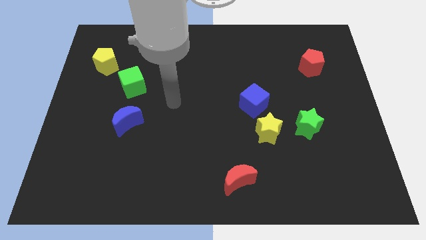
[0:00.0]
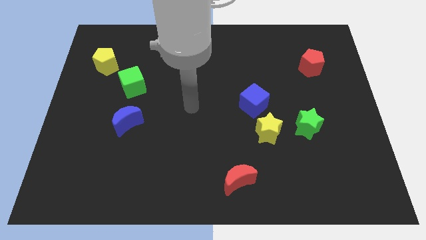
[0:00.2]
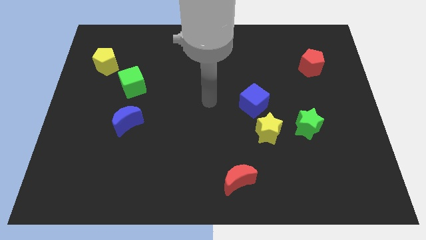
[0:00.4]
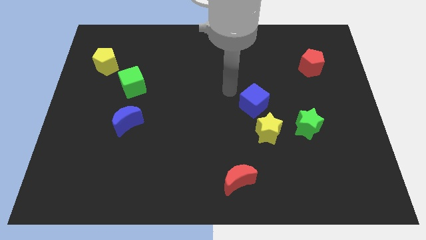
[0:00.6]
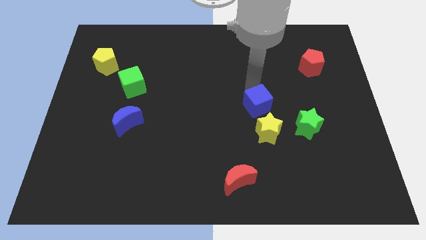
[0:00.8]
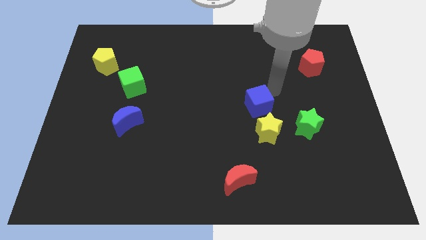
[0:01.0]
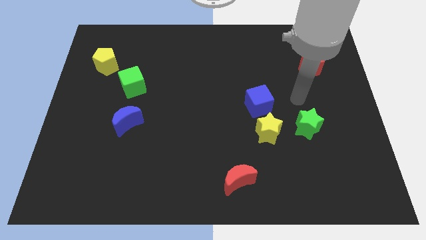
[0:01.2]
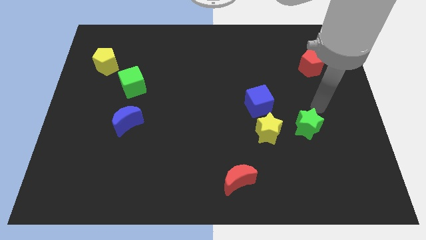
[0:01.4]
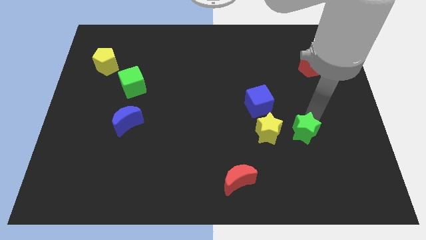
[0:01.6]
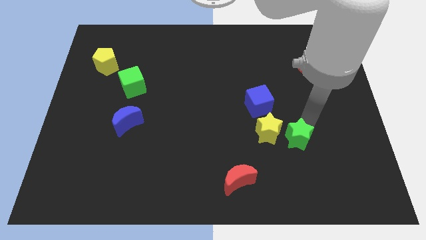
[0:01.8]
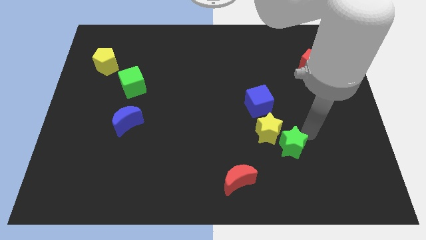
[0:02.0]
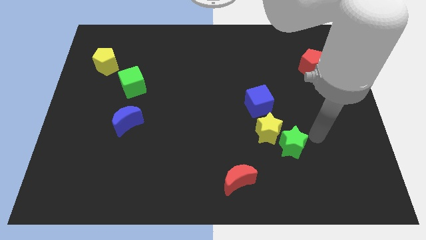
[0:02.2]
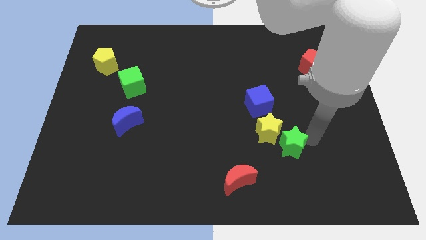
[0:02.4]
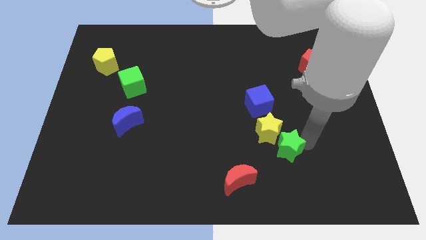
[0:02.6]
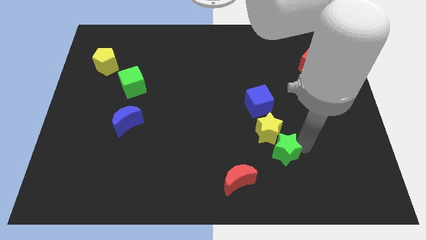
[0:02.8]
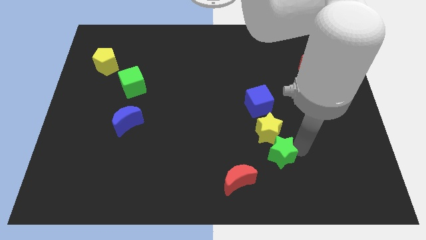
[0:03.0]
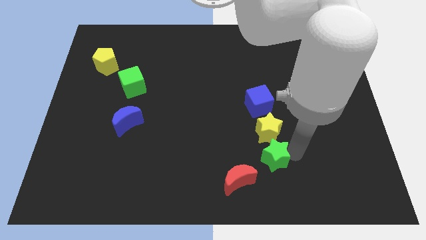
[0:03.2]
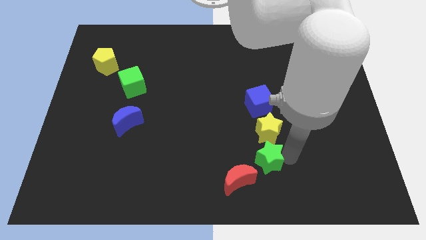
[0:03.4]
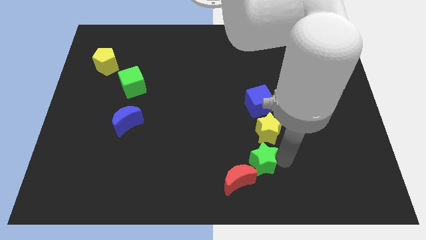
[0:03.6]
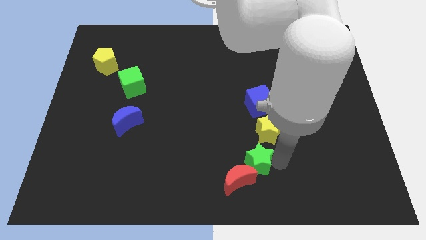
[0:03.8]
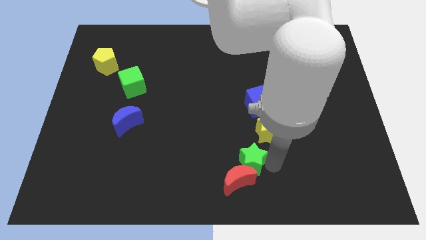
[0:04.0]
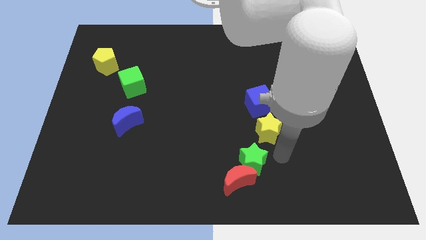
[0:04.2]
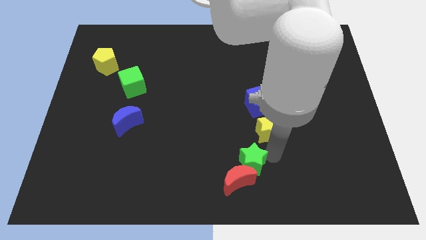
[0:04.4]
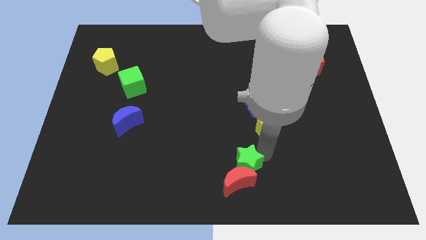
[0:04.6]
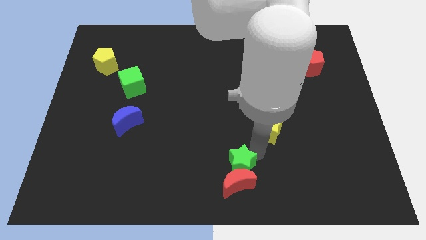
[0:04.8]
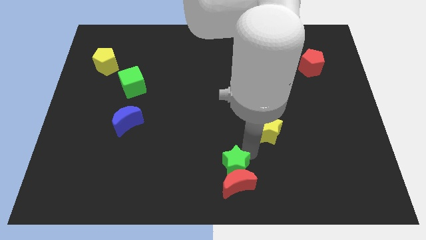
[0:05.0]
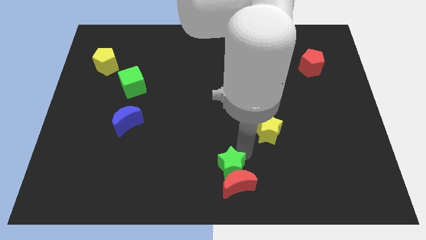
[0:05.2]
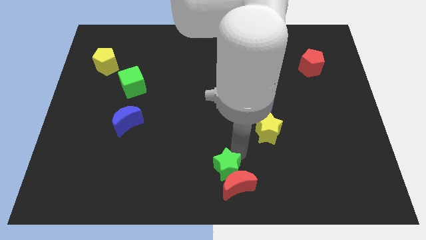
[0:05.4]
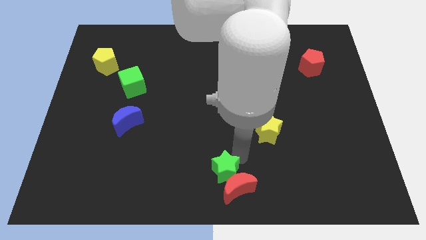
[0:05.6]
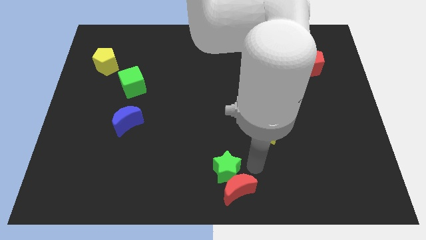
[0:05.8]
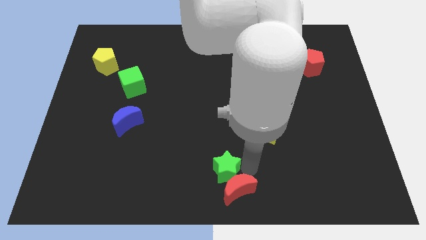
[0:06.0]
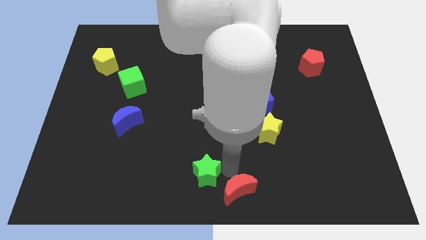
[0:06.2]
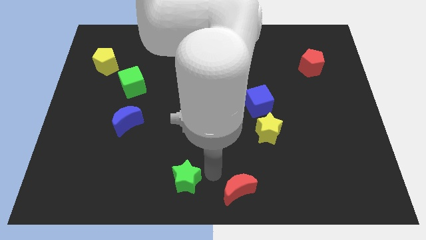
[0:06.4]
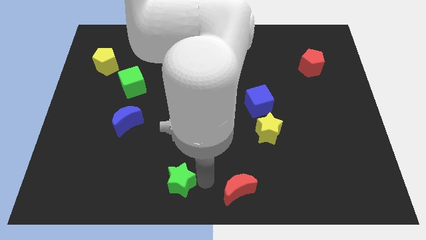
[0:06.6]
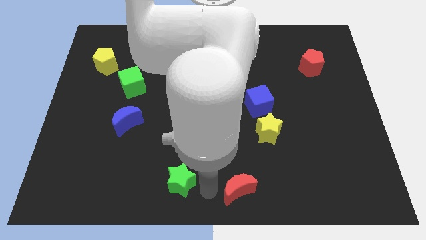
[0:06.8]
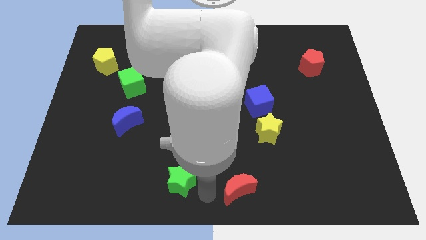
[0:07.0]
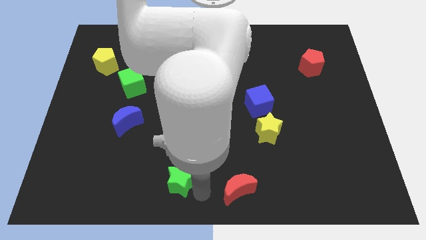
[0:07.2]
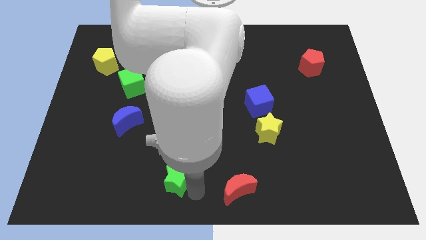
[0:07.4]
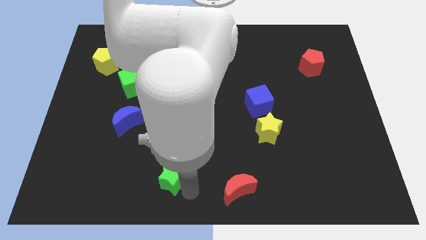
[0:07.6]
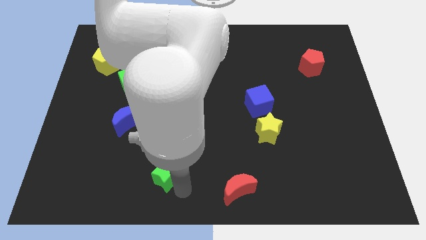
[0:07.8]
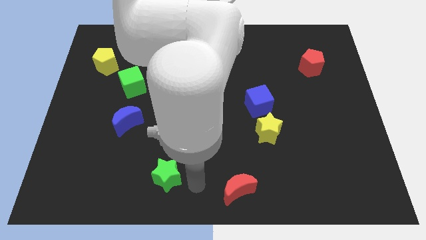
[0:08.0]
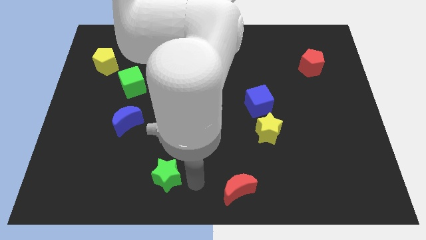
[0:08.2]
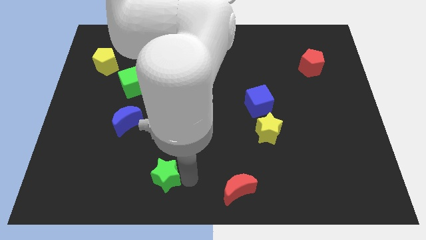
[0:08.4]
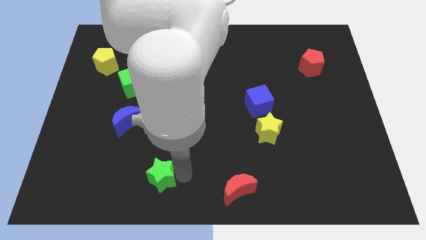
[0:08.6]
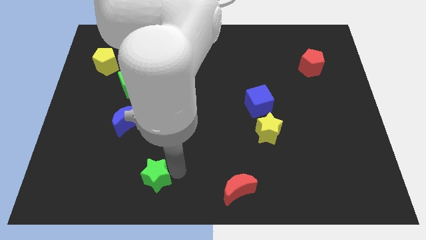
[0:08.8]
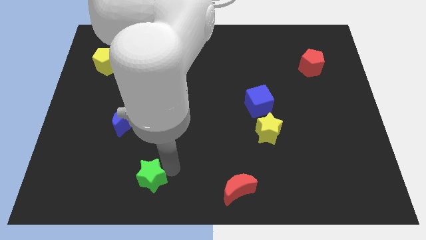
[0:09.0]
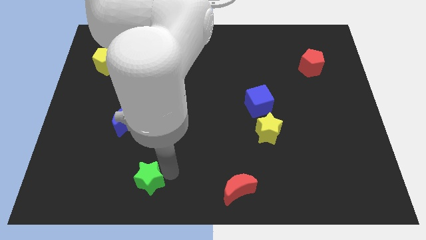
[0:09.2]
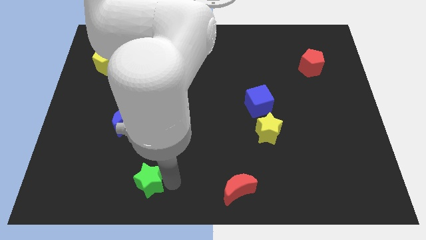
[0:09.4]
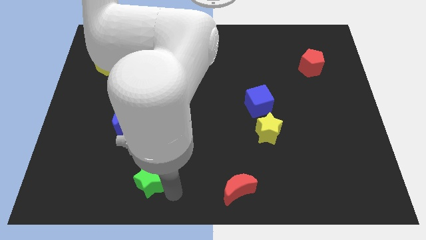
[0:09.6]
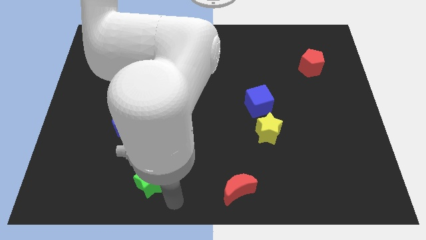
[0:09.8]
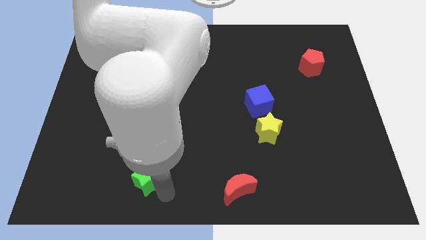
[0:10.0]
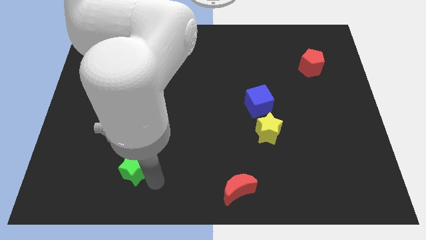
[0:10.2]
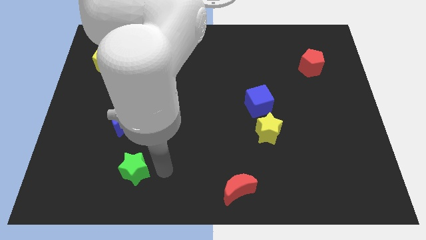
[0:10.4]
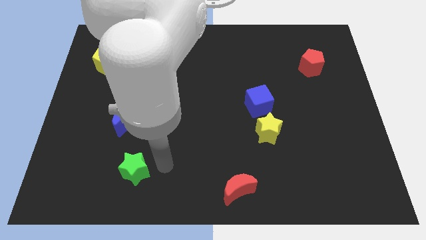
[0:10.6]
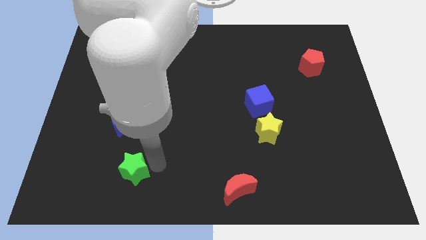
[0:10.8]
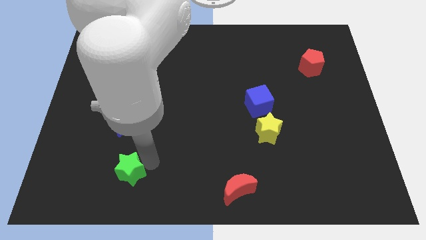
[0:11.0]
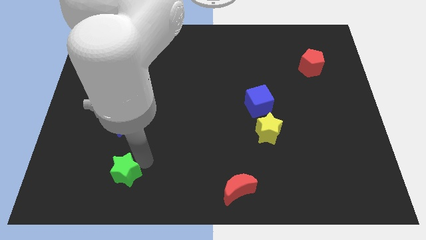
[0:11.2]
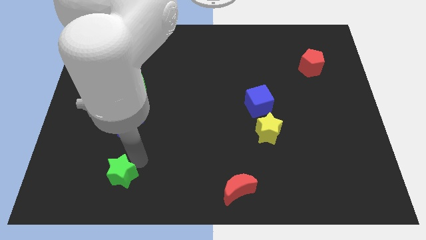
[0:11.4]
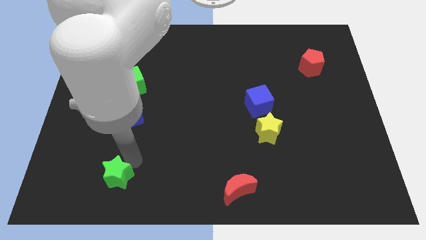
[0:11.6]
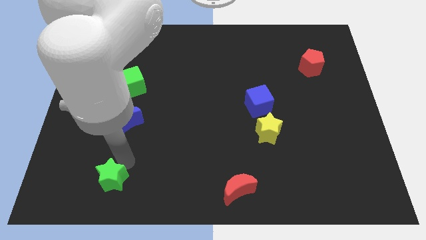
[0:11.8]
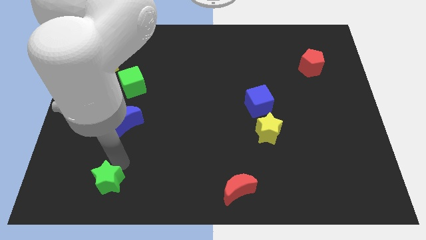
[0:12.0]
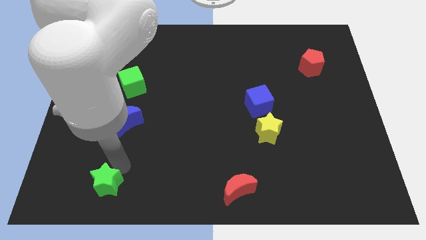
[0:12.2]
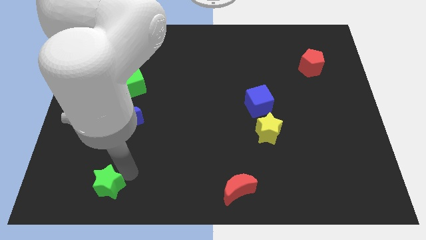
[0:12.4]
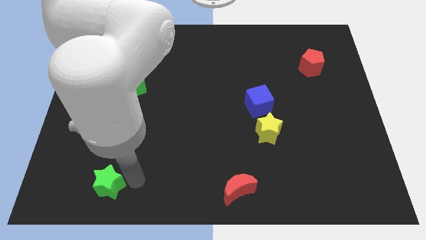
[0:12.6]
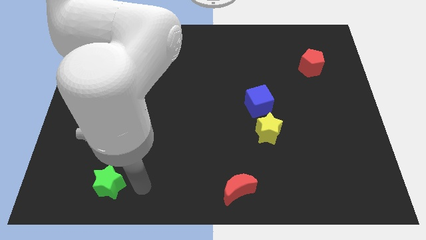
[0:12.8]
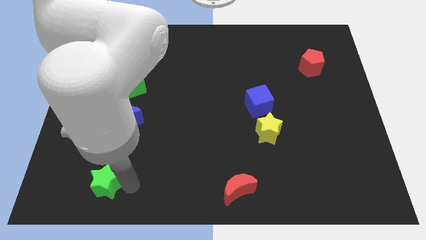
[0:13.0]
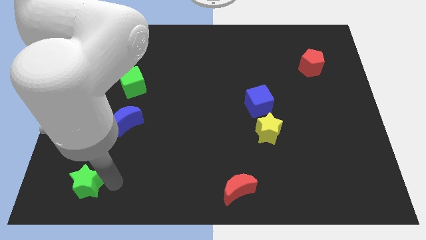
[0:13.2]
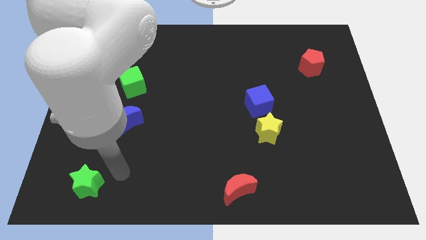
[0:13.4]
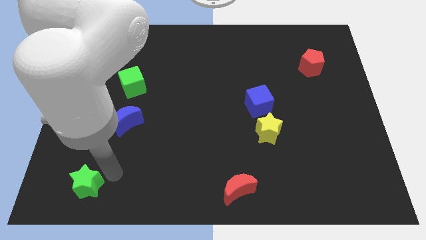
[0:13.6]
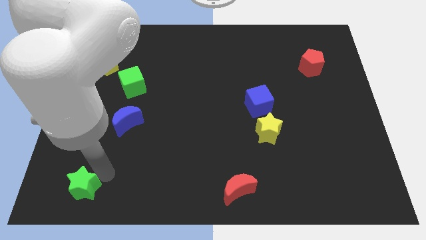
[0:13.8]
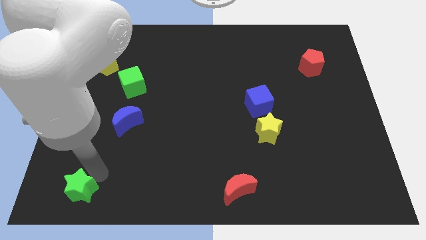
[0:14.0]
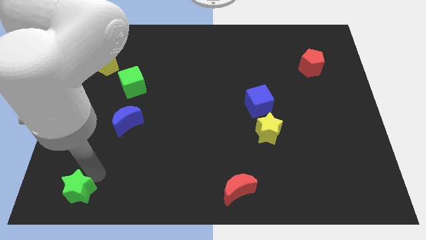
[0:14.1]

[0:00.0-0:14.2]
push the green star to the bottom left

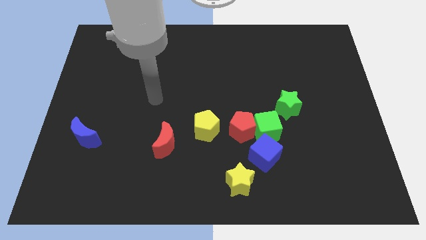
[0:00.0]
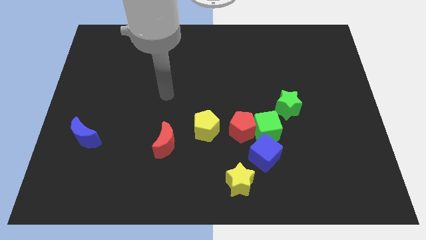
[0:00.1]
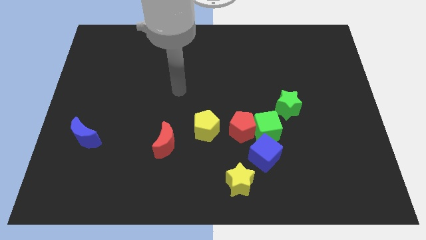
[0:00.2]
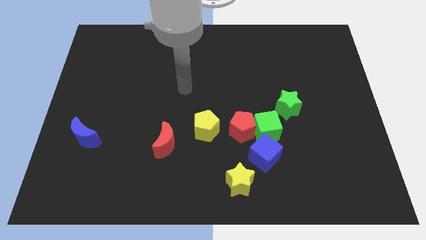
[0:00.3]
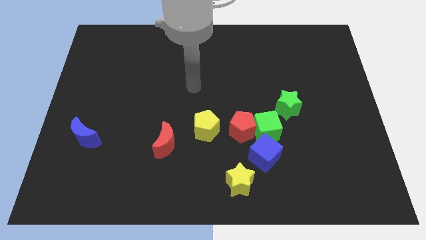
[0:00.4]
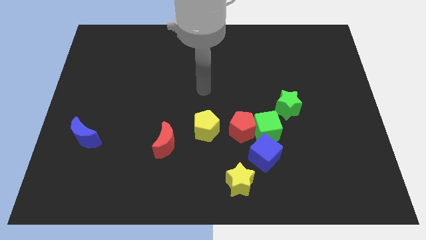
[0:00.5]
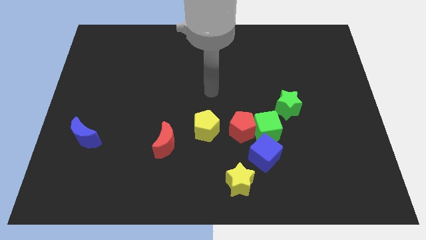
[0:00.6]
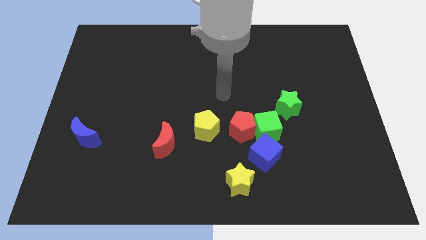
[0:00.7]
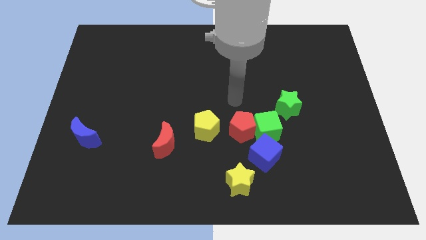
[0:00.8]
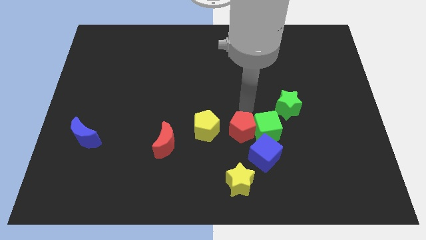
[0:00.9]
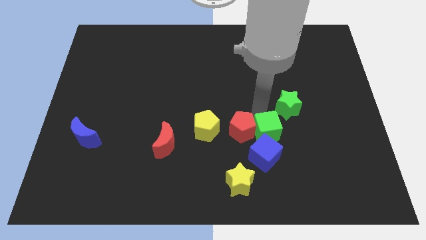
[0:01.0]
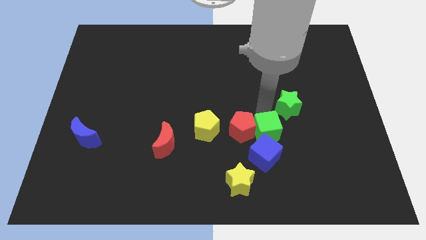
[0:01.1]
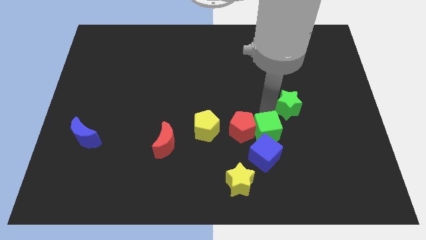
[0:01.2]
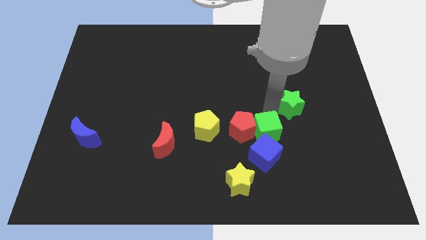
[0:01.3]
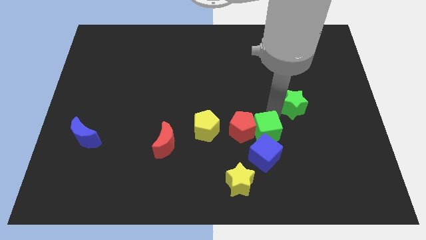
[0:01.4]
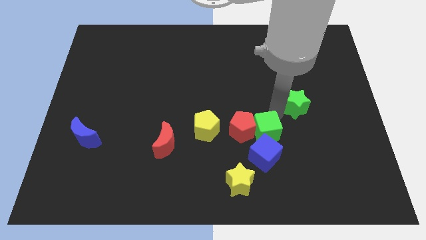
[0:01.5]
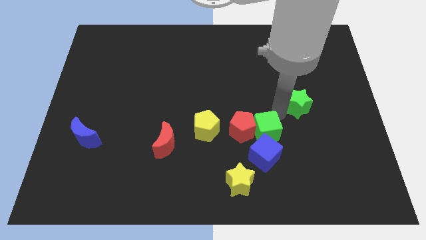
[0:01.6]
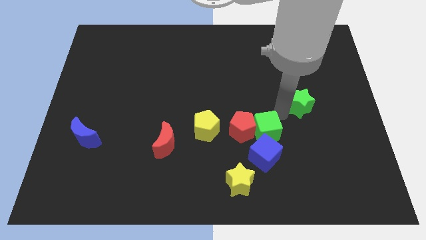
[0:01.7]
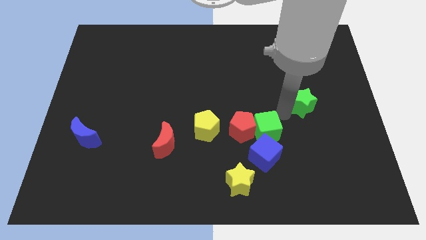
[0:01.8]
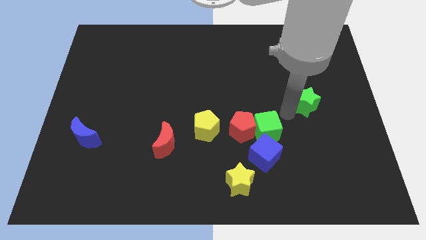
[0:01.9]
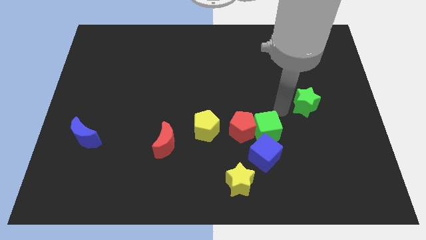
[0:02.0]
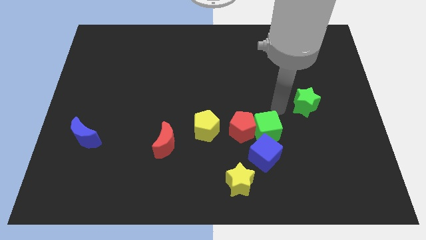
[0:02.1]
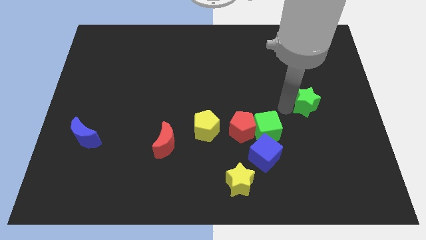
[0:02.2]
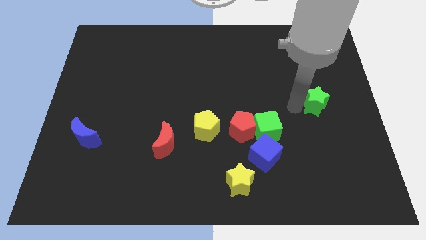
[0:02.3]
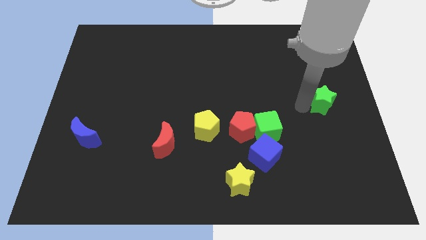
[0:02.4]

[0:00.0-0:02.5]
move the green star to the center right
